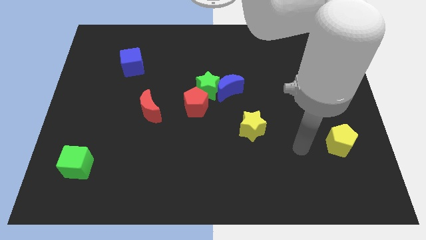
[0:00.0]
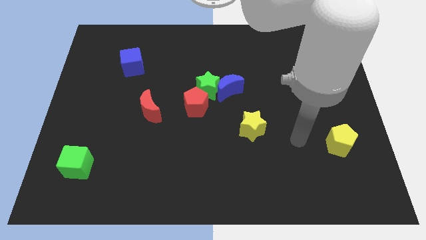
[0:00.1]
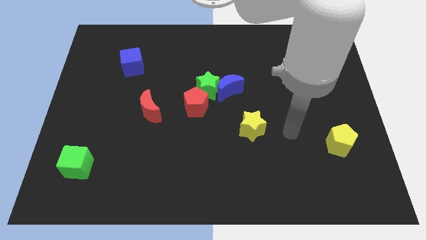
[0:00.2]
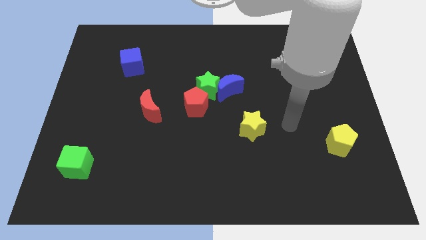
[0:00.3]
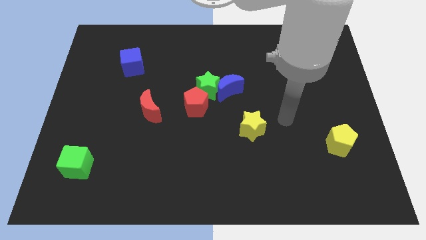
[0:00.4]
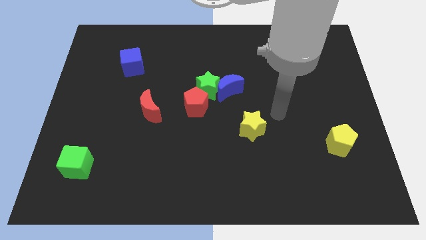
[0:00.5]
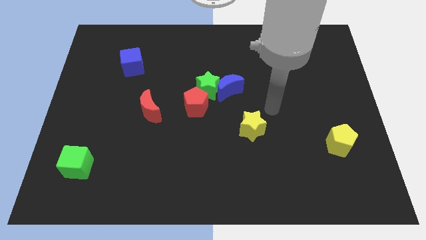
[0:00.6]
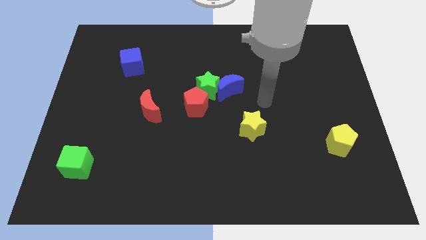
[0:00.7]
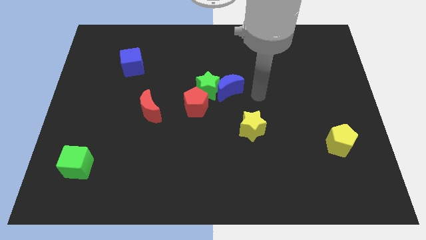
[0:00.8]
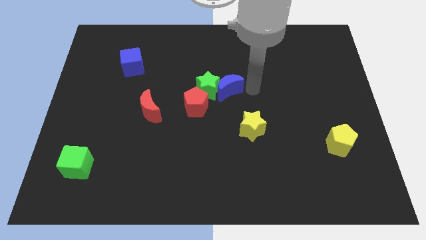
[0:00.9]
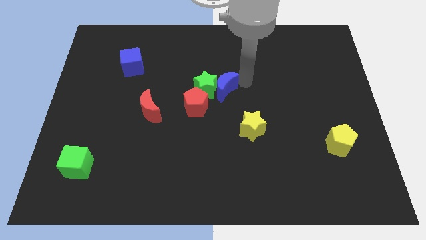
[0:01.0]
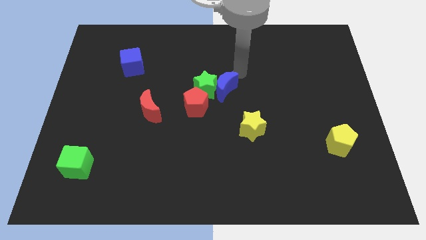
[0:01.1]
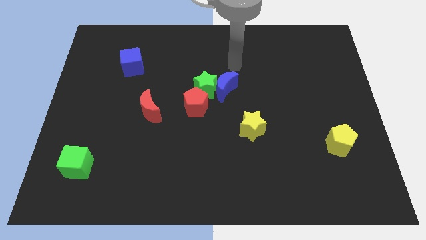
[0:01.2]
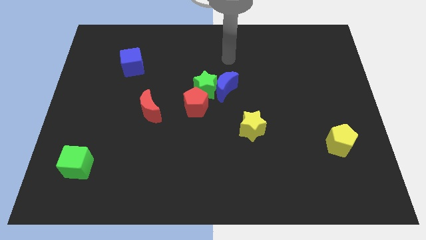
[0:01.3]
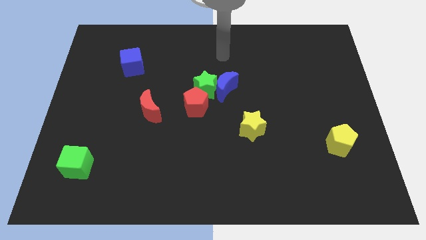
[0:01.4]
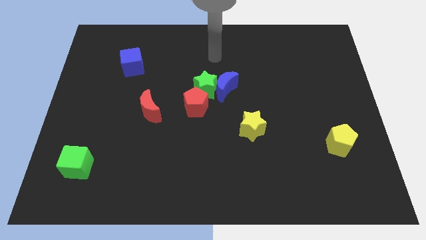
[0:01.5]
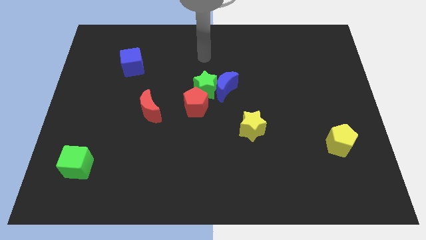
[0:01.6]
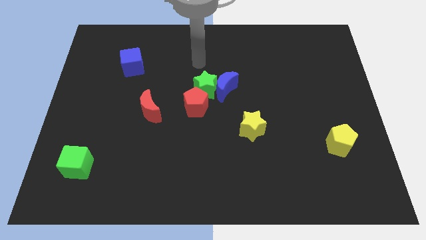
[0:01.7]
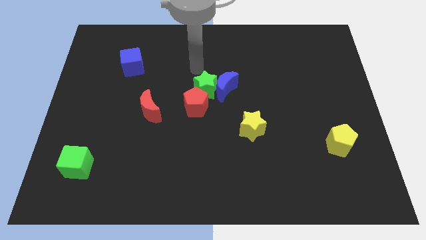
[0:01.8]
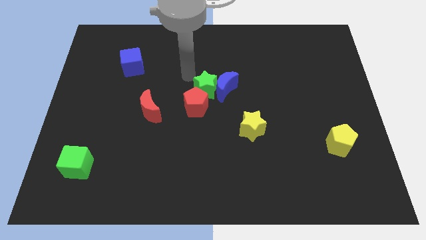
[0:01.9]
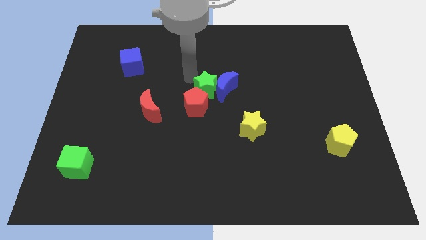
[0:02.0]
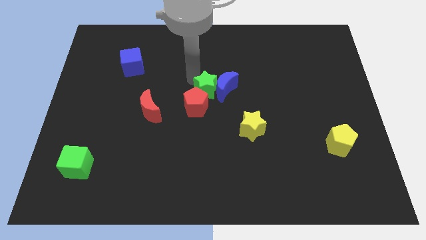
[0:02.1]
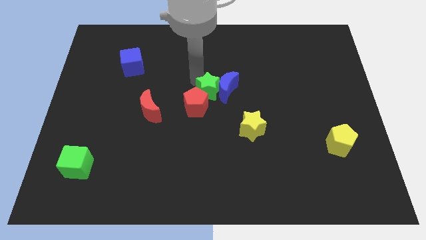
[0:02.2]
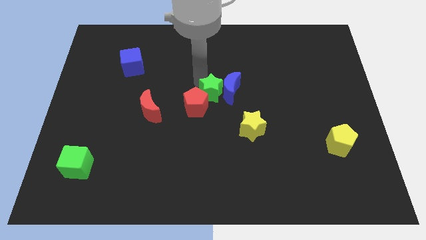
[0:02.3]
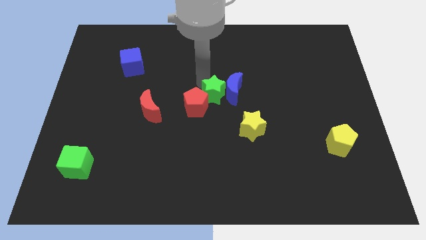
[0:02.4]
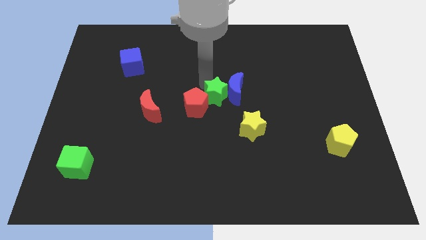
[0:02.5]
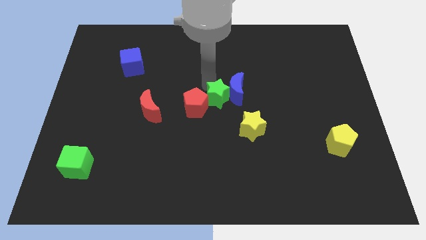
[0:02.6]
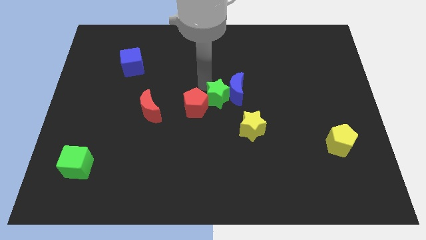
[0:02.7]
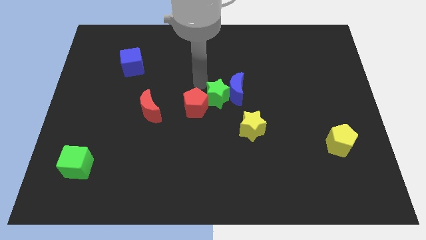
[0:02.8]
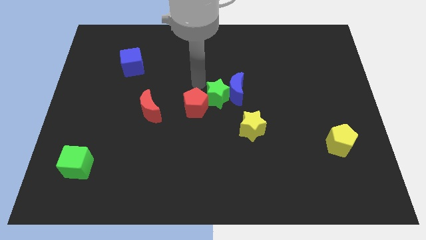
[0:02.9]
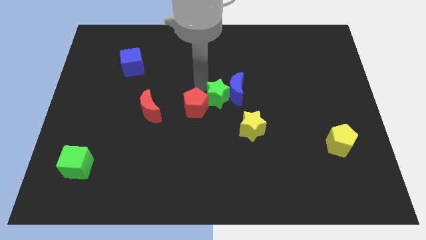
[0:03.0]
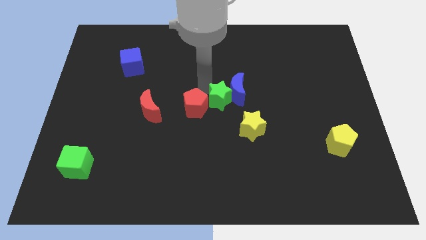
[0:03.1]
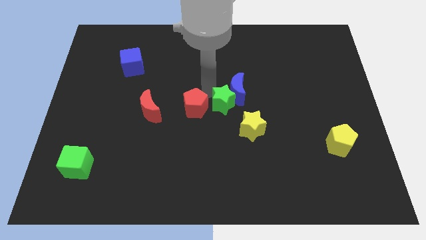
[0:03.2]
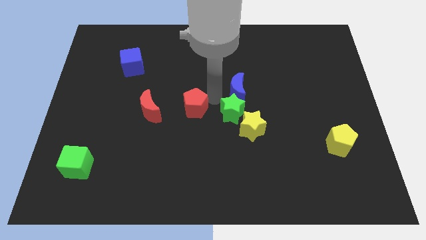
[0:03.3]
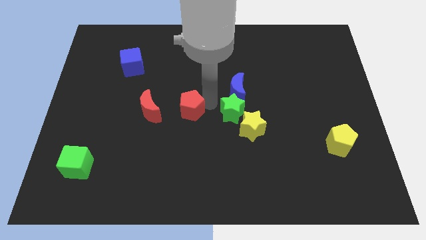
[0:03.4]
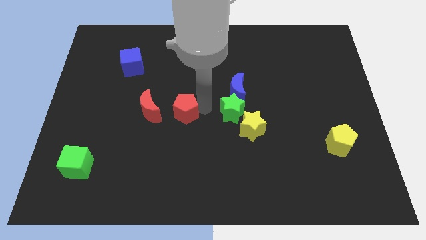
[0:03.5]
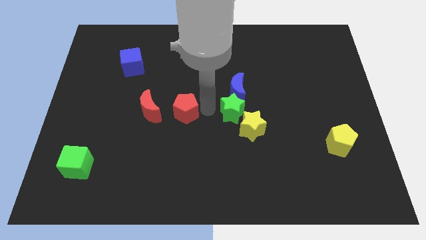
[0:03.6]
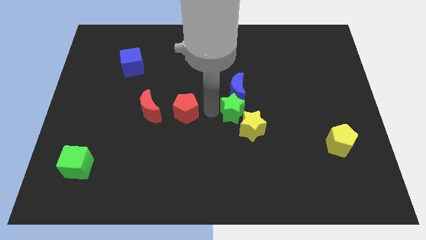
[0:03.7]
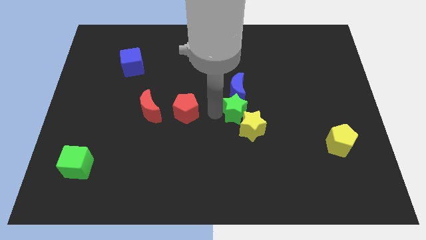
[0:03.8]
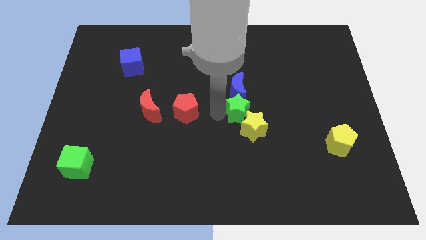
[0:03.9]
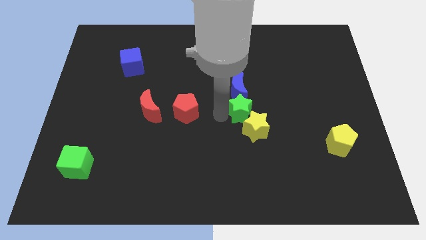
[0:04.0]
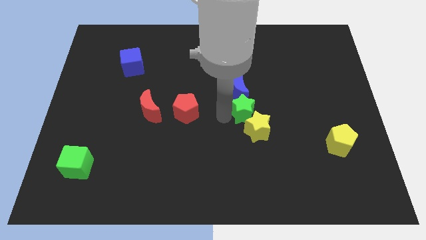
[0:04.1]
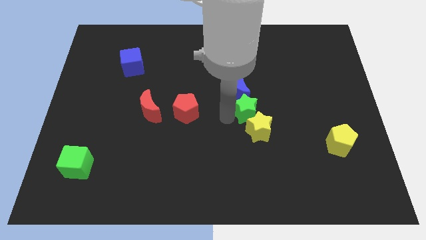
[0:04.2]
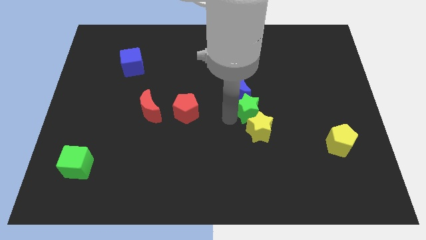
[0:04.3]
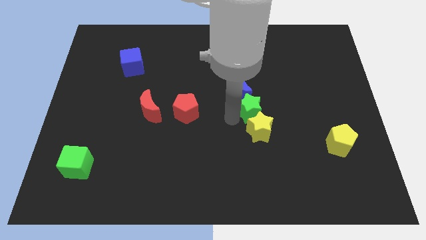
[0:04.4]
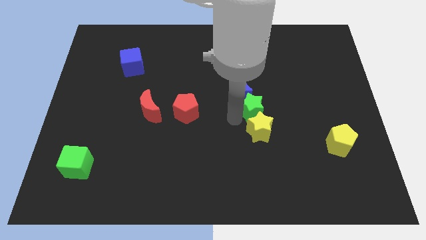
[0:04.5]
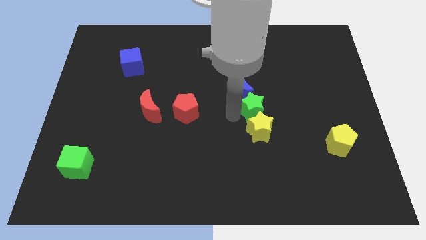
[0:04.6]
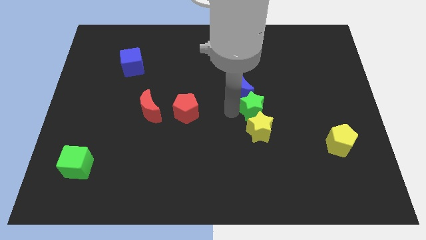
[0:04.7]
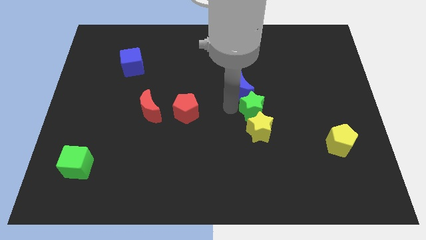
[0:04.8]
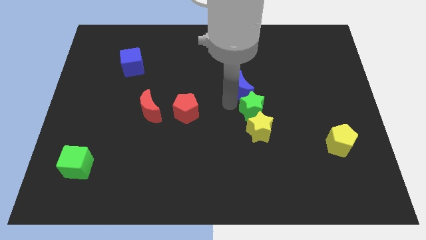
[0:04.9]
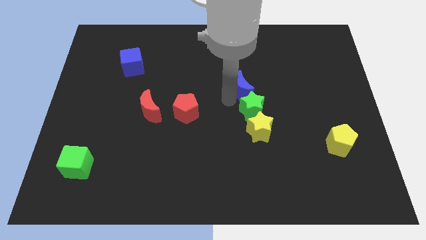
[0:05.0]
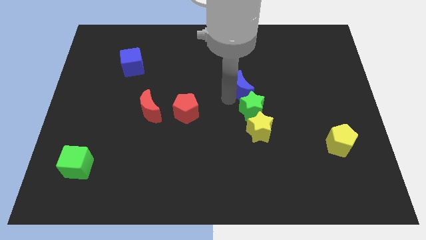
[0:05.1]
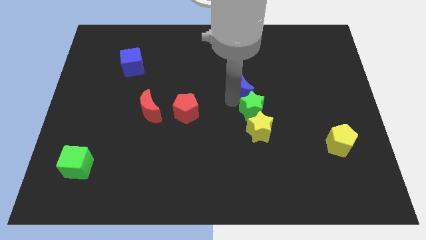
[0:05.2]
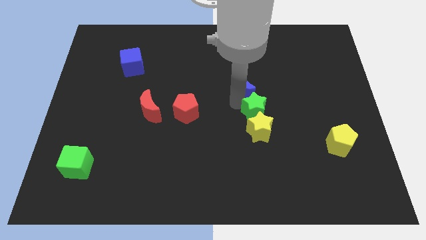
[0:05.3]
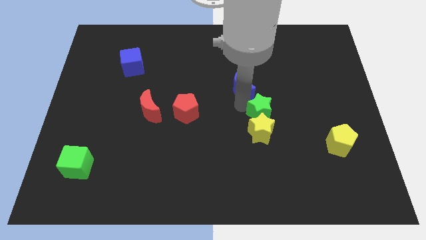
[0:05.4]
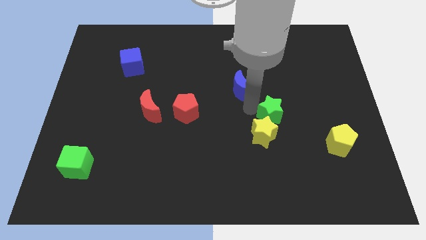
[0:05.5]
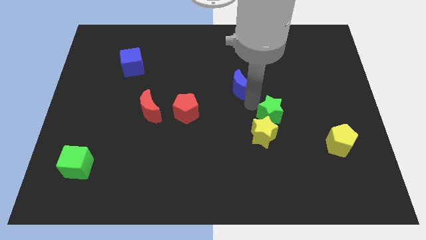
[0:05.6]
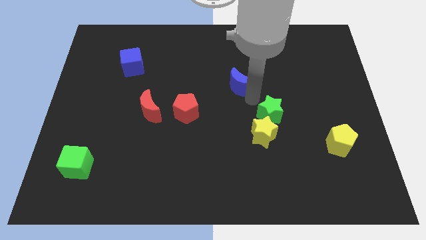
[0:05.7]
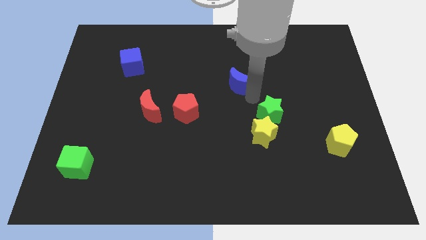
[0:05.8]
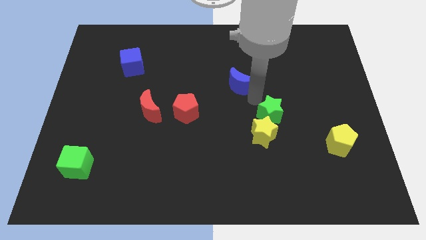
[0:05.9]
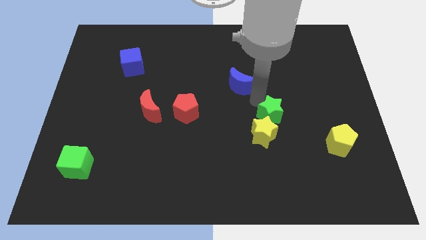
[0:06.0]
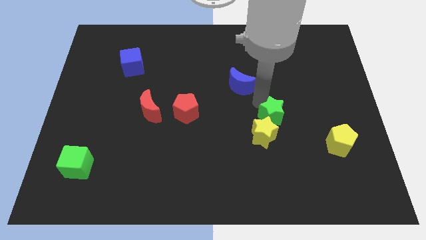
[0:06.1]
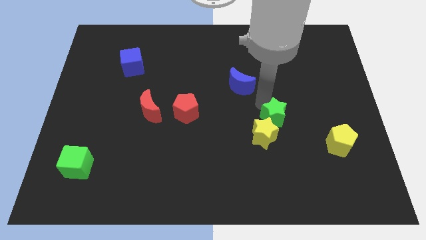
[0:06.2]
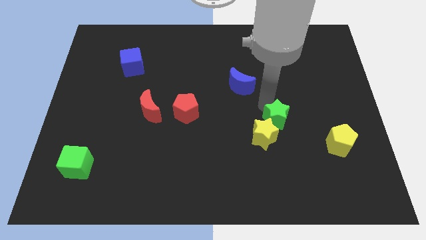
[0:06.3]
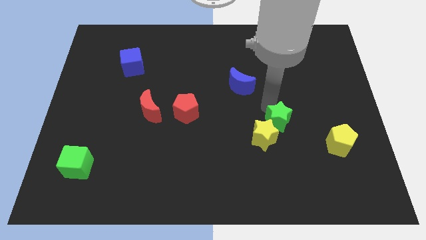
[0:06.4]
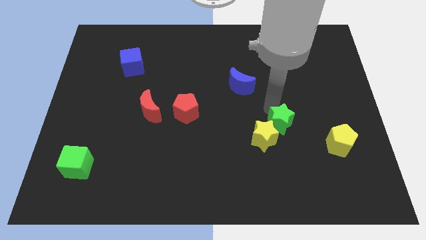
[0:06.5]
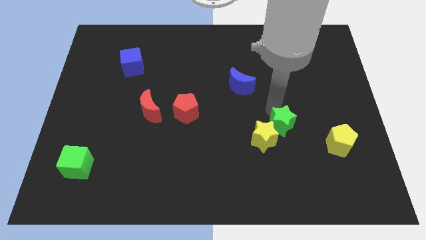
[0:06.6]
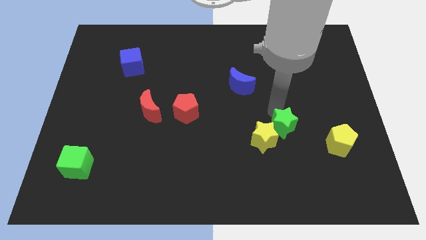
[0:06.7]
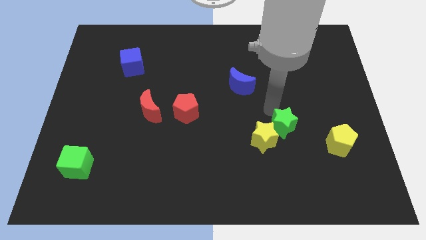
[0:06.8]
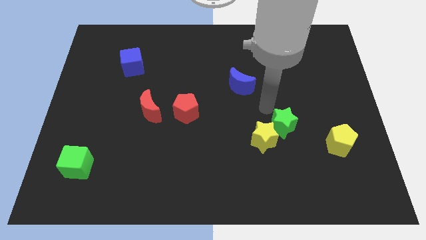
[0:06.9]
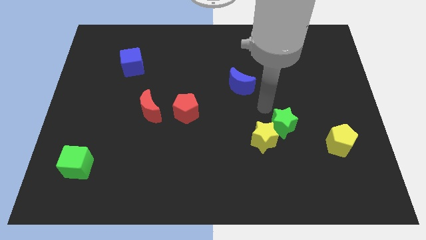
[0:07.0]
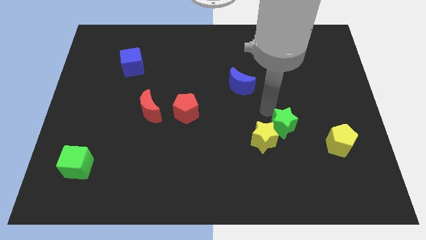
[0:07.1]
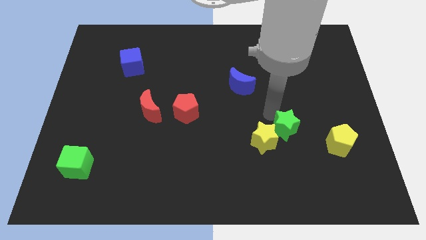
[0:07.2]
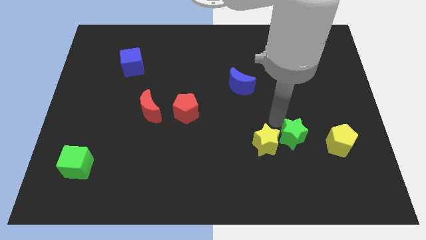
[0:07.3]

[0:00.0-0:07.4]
slide the green star downwards and to the right

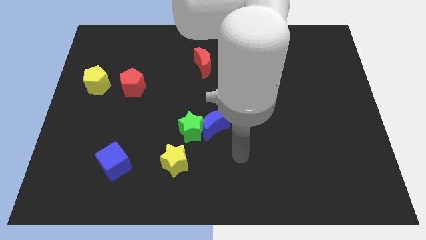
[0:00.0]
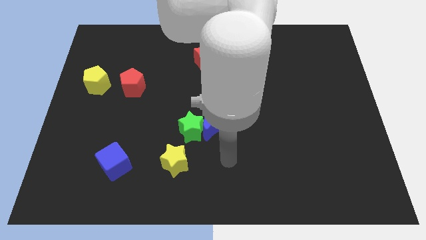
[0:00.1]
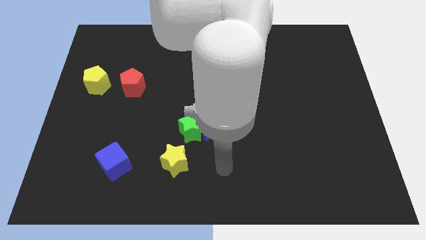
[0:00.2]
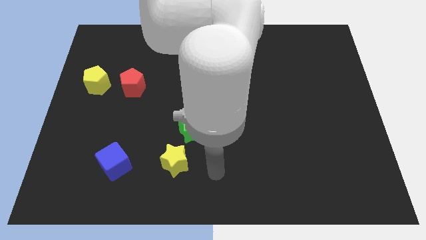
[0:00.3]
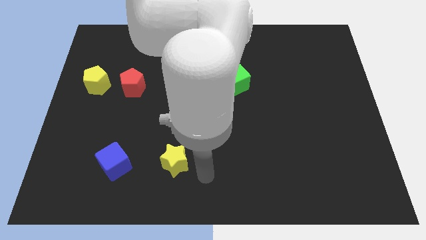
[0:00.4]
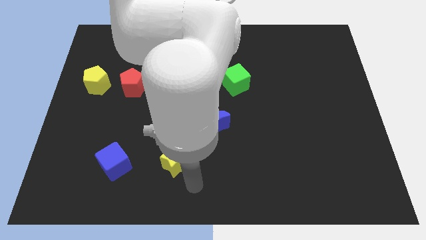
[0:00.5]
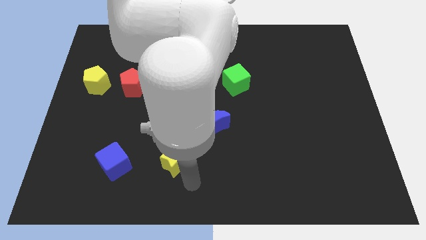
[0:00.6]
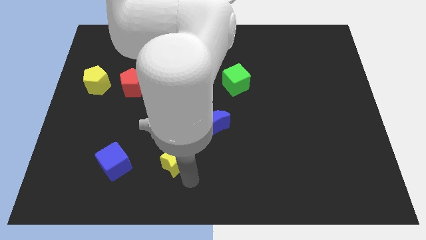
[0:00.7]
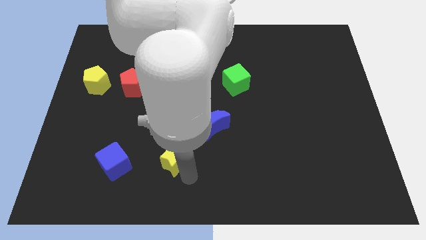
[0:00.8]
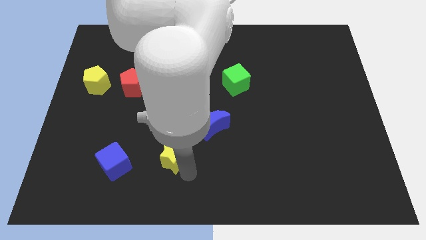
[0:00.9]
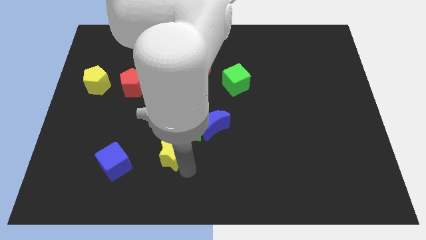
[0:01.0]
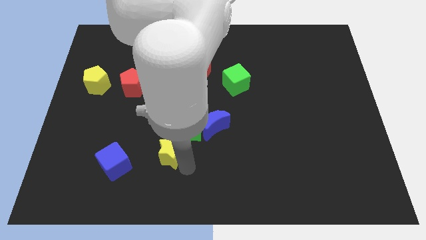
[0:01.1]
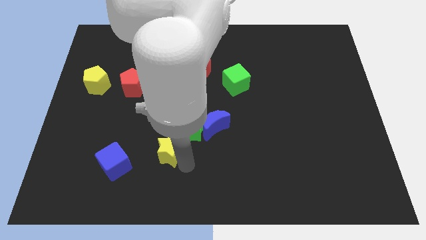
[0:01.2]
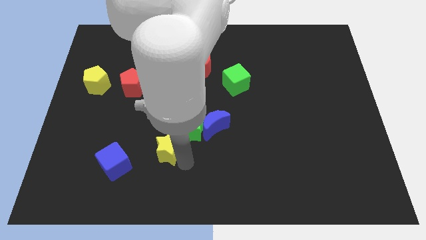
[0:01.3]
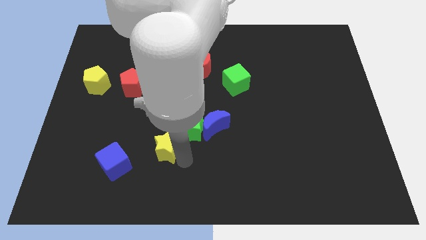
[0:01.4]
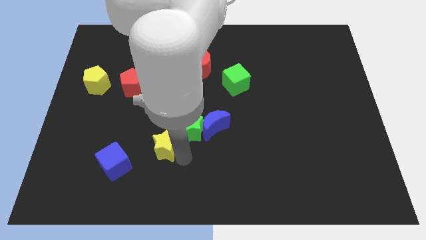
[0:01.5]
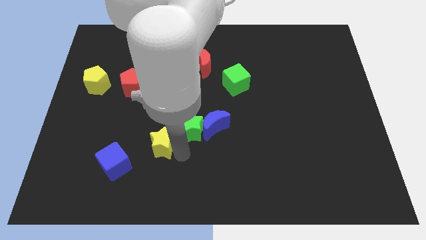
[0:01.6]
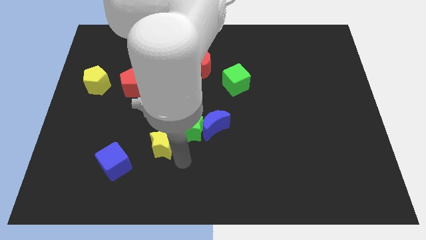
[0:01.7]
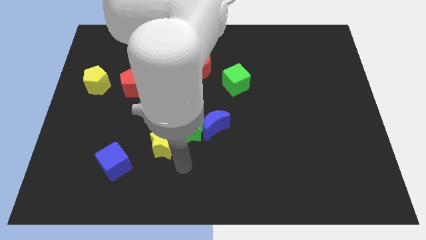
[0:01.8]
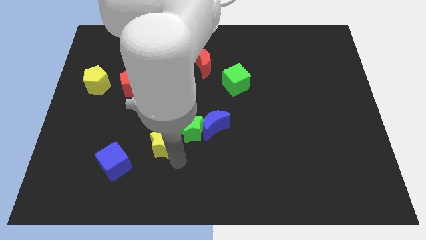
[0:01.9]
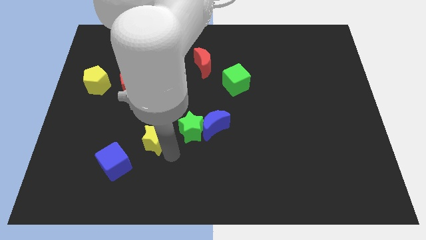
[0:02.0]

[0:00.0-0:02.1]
push the yellow star a little up and to the left diagonally
